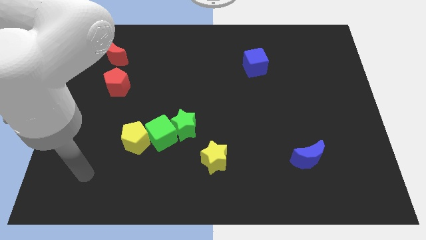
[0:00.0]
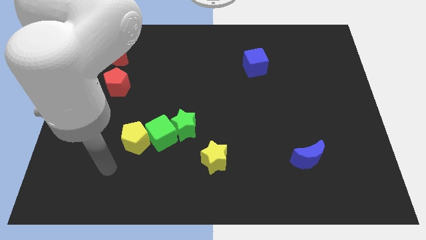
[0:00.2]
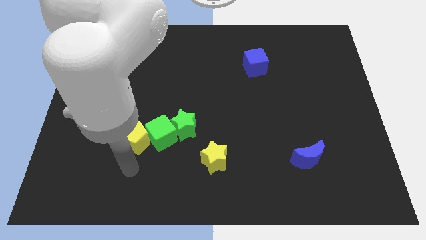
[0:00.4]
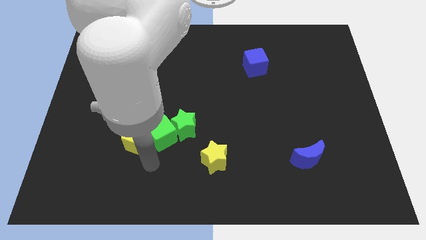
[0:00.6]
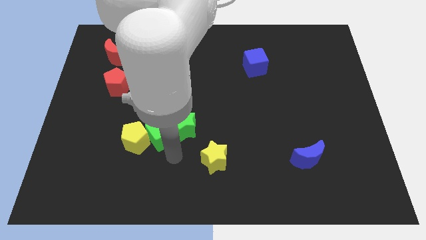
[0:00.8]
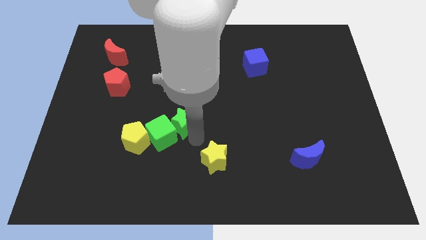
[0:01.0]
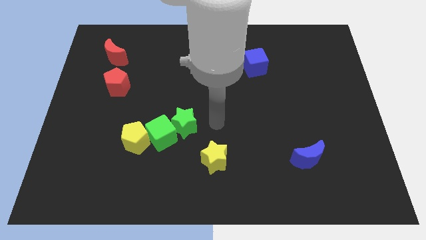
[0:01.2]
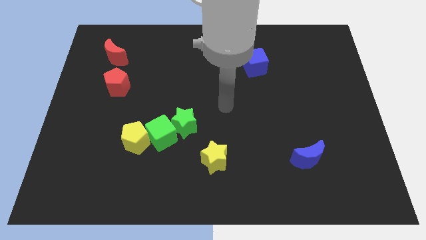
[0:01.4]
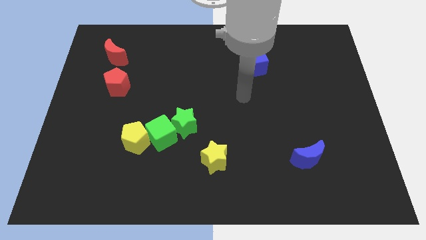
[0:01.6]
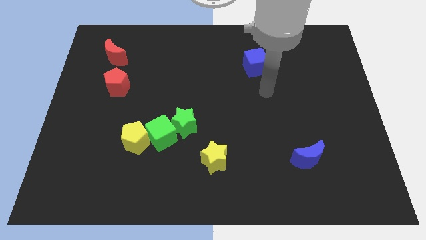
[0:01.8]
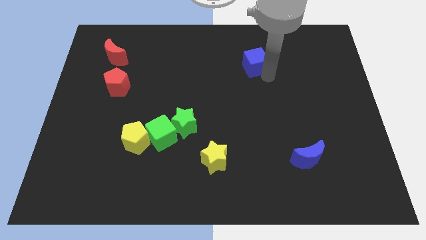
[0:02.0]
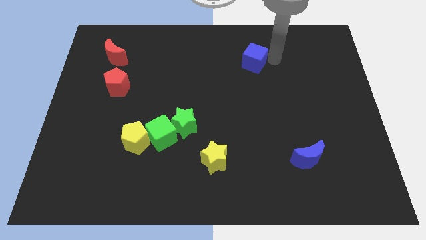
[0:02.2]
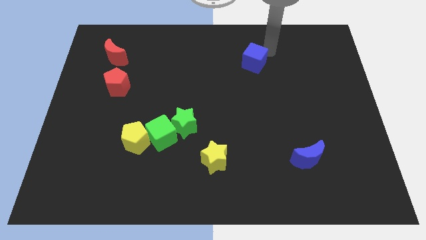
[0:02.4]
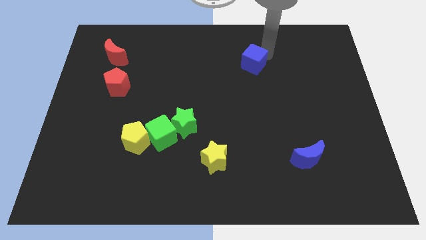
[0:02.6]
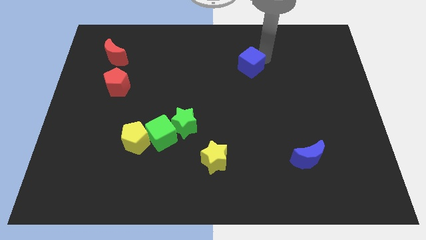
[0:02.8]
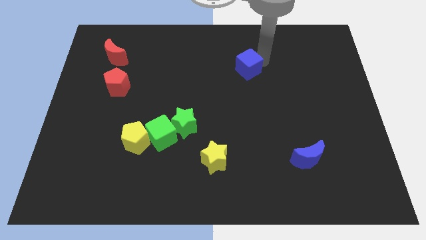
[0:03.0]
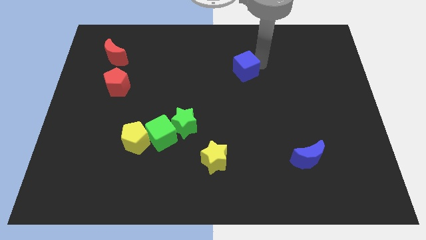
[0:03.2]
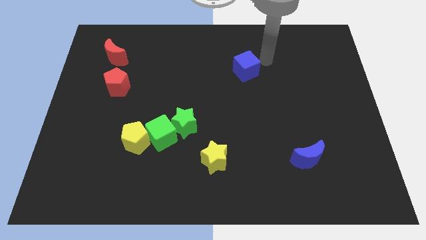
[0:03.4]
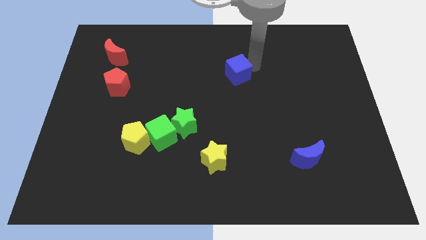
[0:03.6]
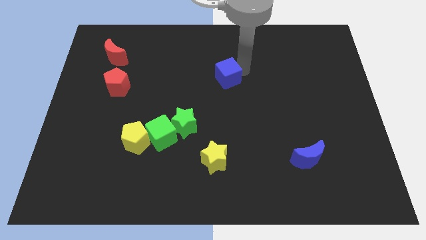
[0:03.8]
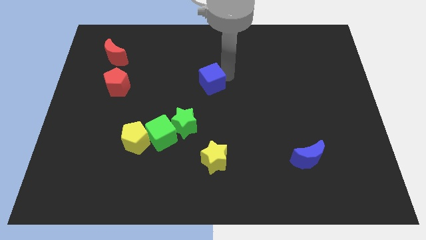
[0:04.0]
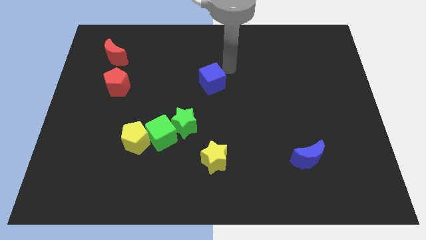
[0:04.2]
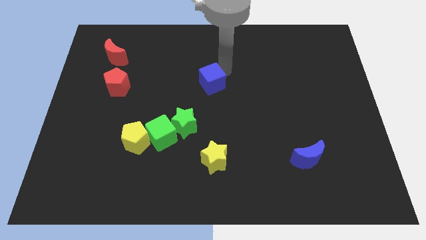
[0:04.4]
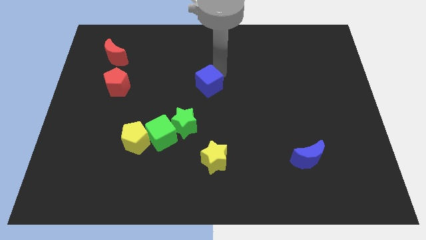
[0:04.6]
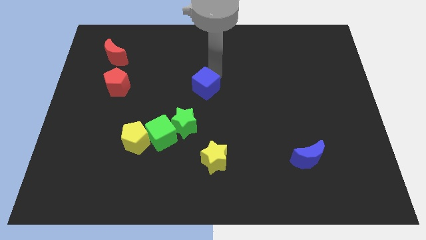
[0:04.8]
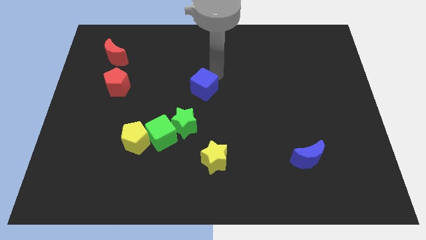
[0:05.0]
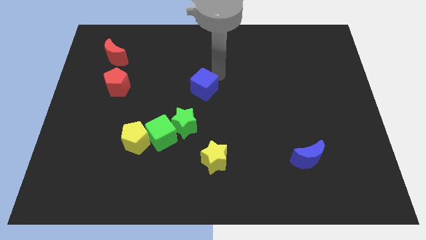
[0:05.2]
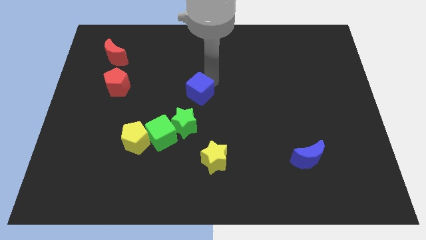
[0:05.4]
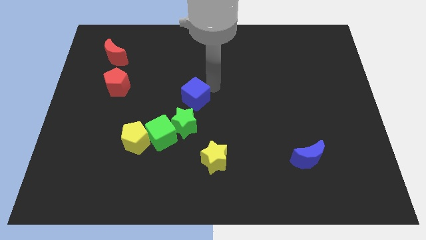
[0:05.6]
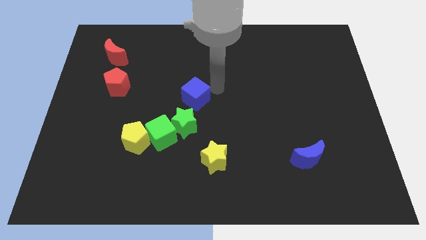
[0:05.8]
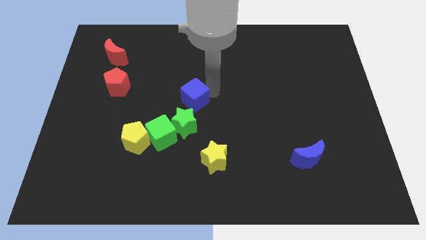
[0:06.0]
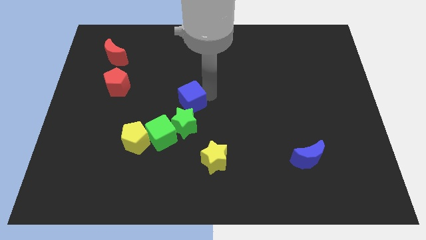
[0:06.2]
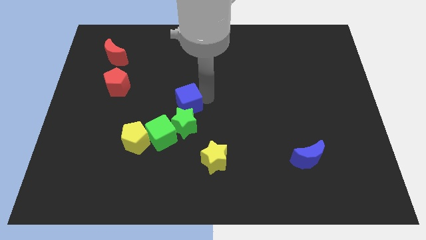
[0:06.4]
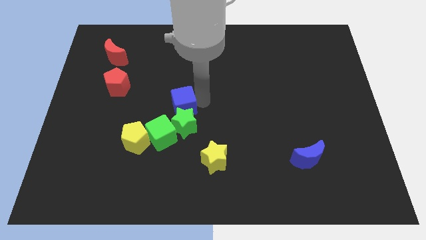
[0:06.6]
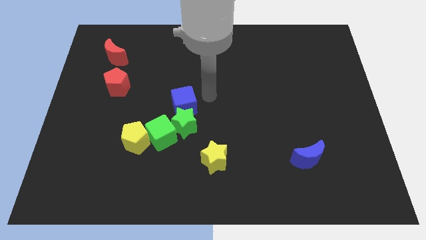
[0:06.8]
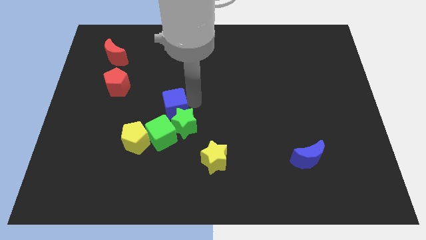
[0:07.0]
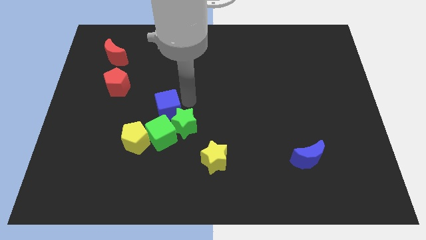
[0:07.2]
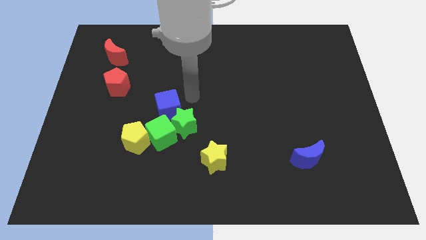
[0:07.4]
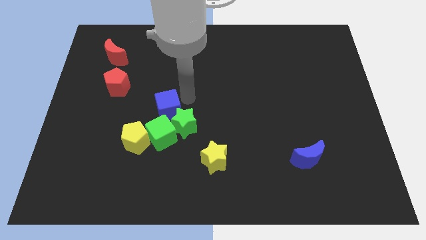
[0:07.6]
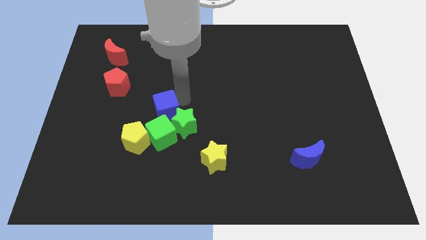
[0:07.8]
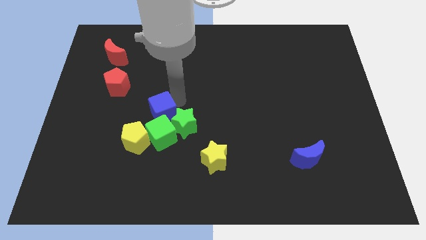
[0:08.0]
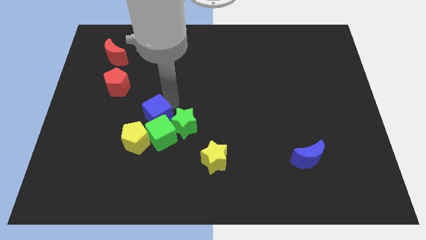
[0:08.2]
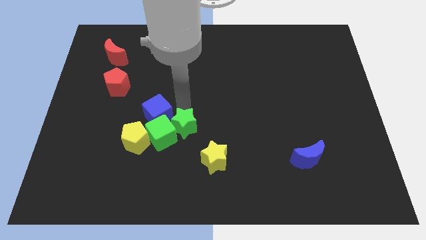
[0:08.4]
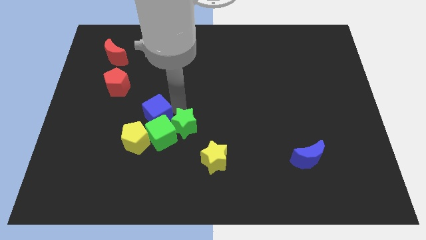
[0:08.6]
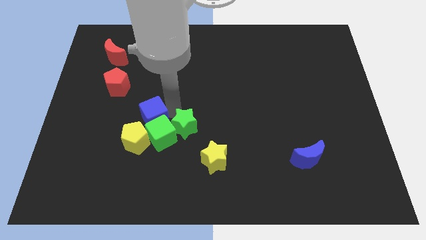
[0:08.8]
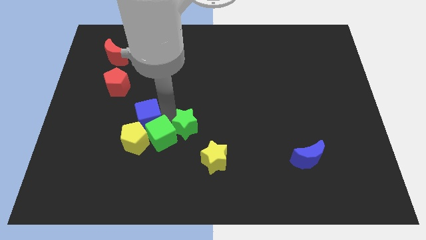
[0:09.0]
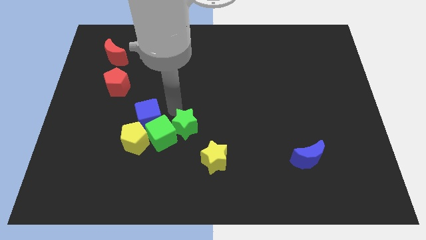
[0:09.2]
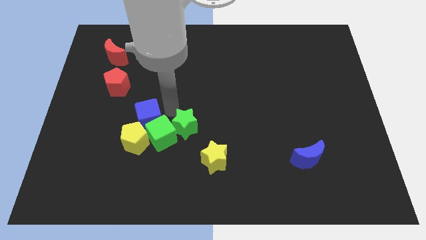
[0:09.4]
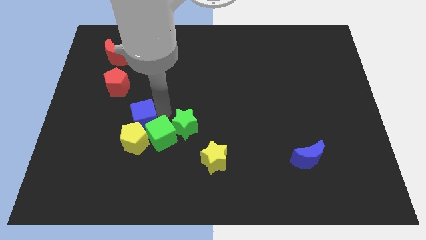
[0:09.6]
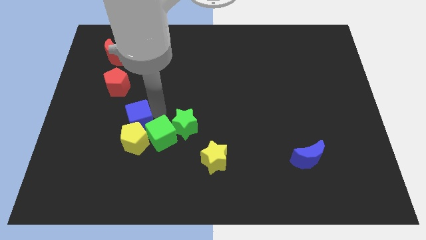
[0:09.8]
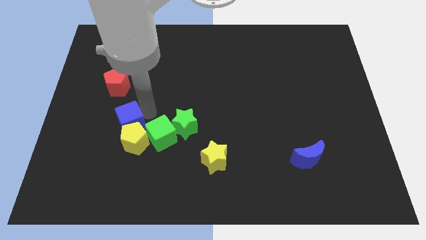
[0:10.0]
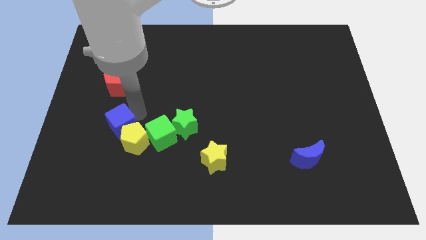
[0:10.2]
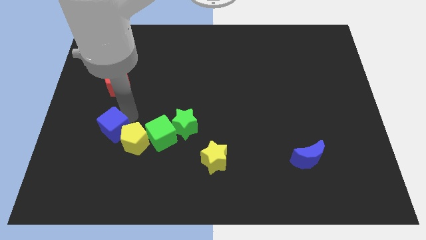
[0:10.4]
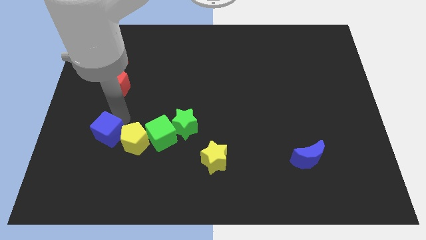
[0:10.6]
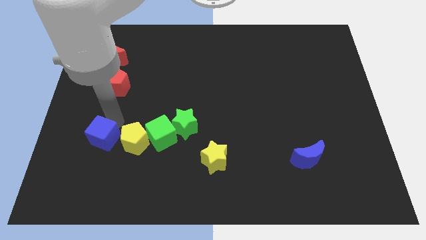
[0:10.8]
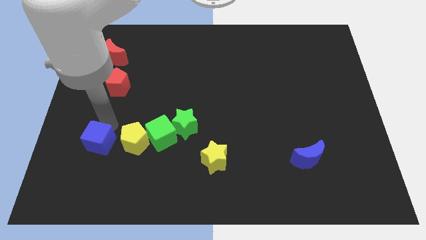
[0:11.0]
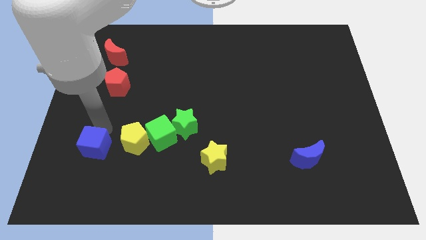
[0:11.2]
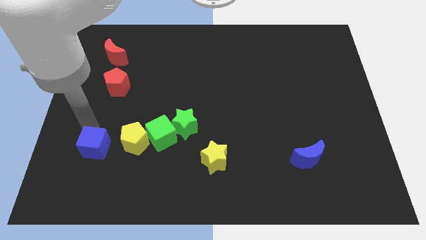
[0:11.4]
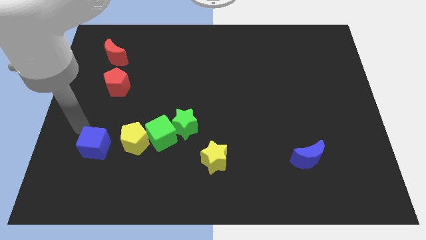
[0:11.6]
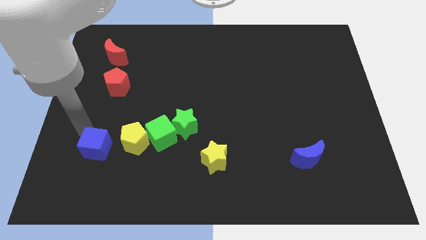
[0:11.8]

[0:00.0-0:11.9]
push the blue cube diagonally down and to the left of the yellow pentagon

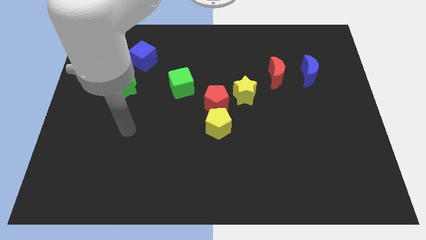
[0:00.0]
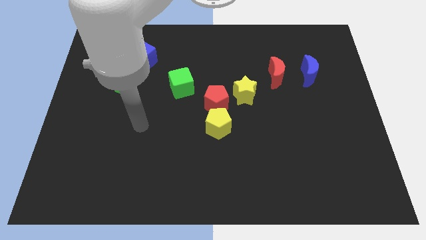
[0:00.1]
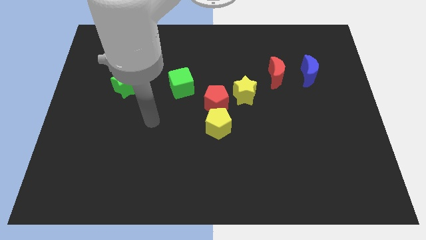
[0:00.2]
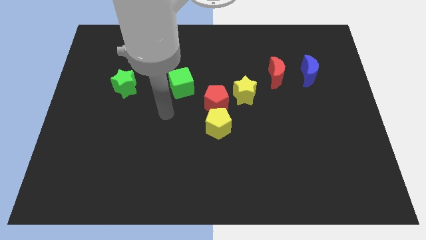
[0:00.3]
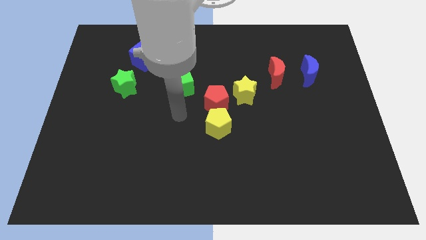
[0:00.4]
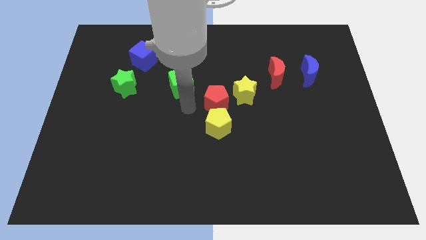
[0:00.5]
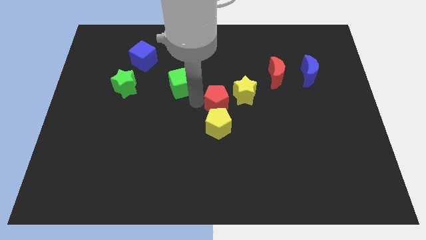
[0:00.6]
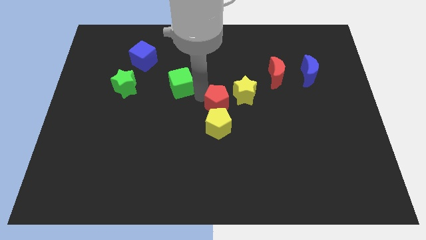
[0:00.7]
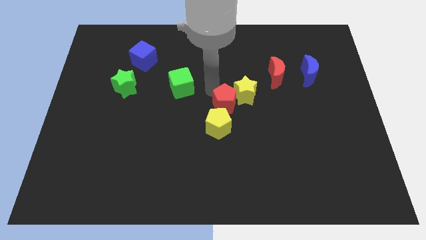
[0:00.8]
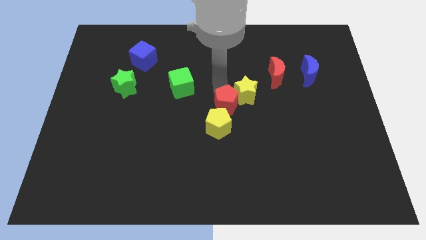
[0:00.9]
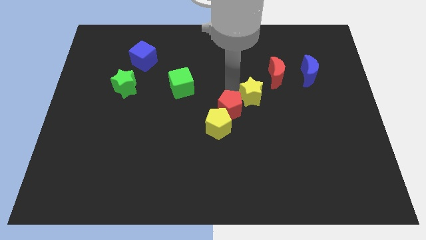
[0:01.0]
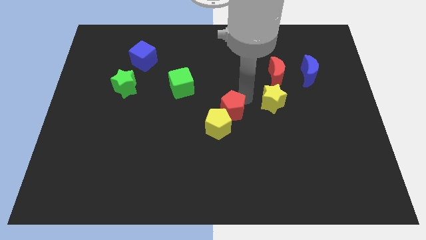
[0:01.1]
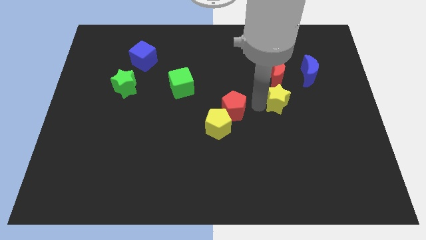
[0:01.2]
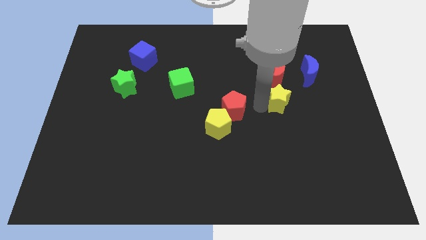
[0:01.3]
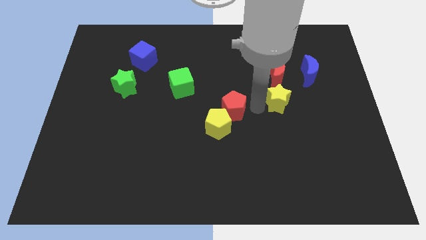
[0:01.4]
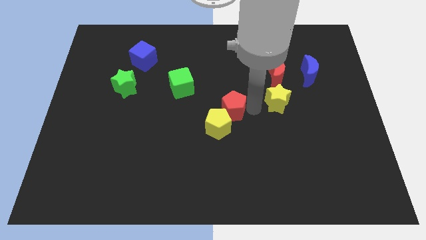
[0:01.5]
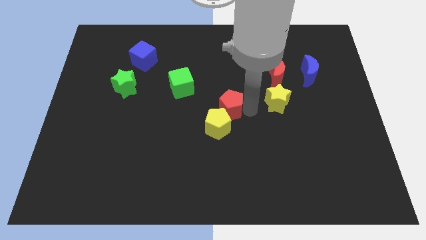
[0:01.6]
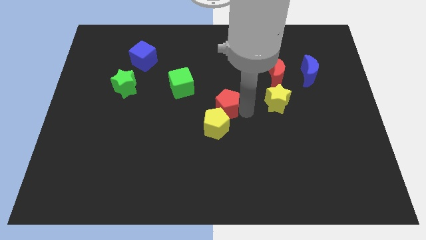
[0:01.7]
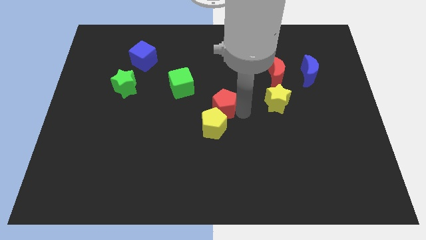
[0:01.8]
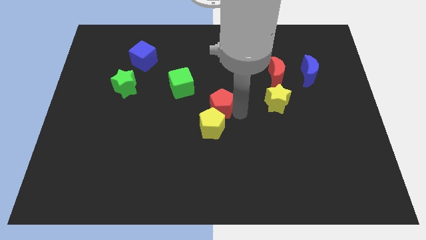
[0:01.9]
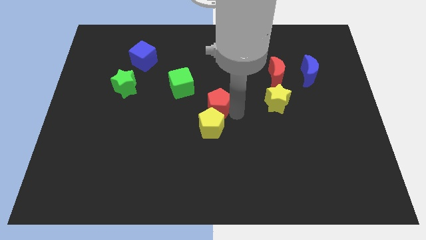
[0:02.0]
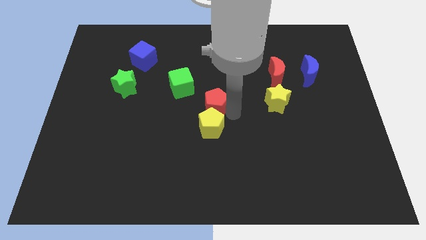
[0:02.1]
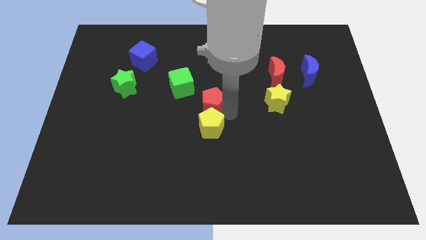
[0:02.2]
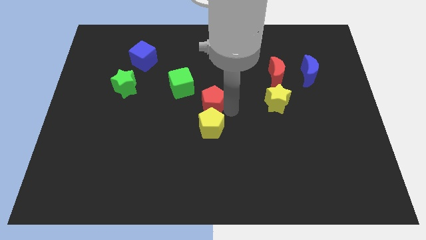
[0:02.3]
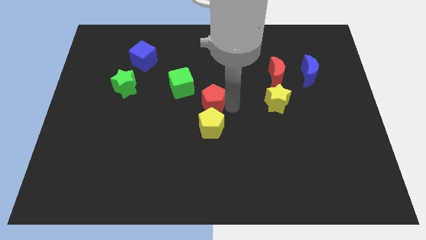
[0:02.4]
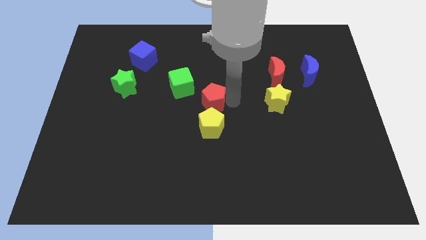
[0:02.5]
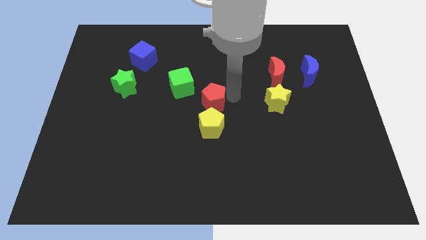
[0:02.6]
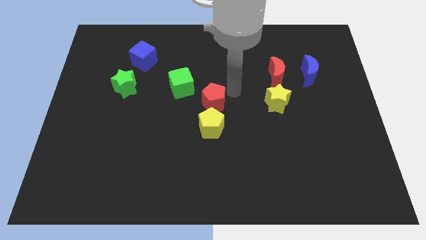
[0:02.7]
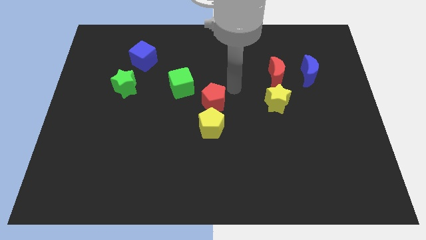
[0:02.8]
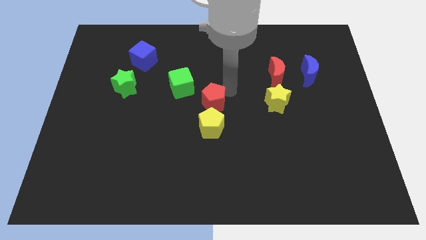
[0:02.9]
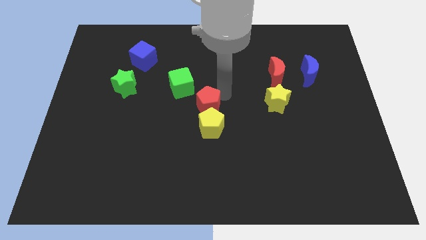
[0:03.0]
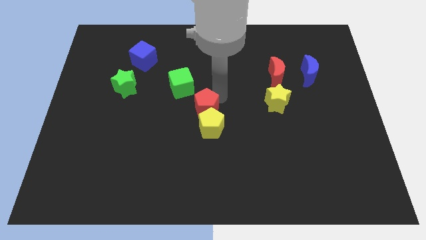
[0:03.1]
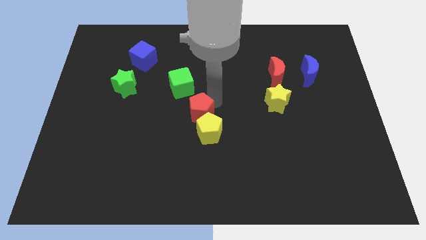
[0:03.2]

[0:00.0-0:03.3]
push the red pentagon to the bottom side of the green cube
